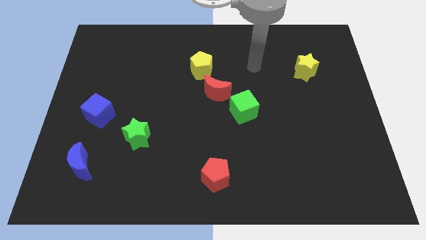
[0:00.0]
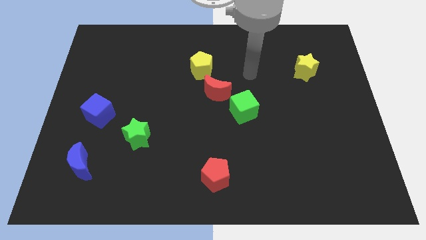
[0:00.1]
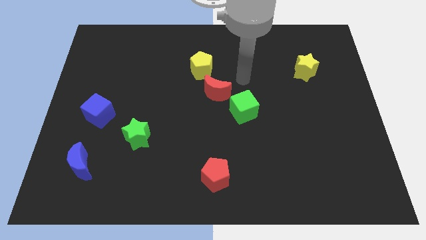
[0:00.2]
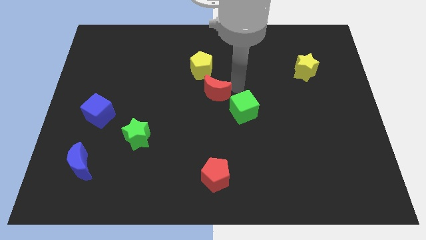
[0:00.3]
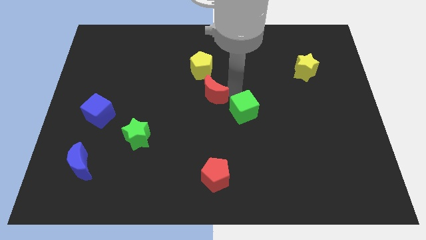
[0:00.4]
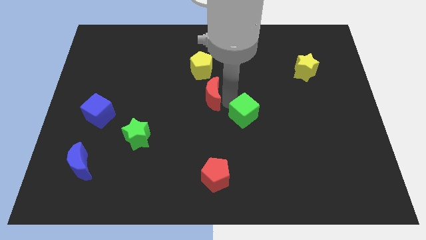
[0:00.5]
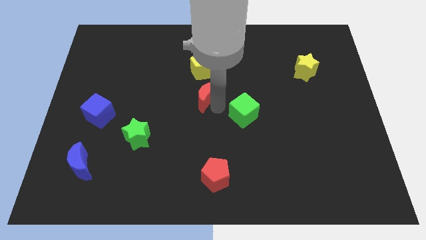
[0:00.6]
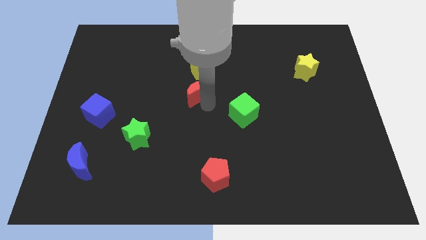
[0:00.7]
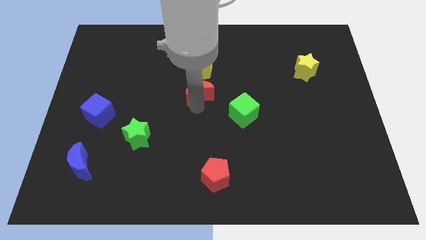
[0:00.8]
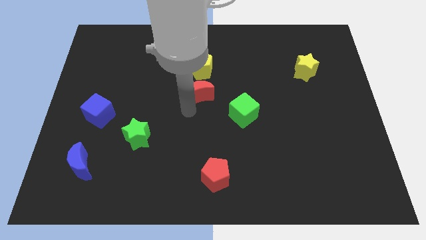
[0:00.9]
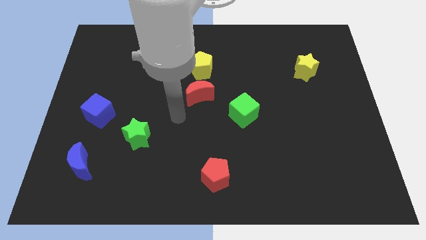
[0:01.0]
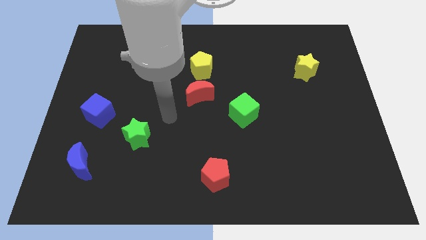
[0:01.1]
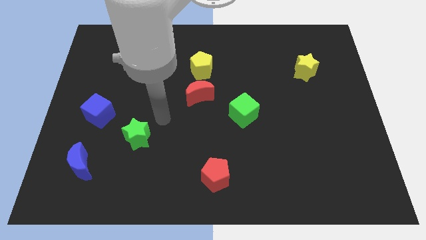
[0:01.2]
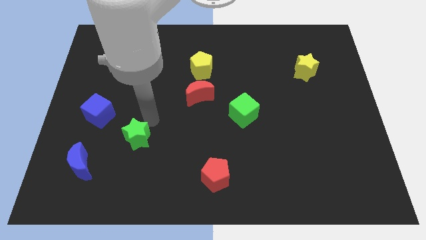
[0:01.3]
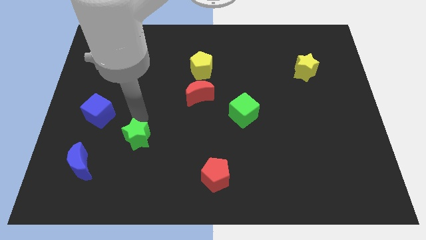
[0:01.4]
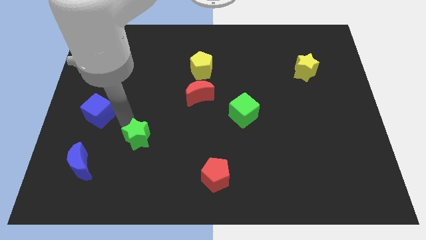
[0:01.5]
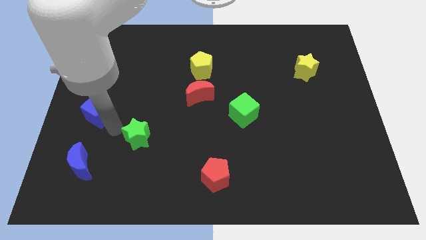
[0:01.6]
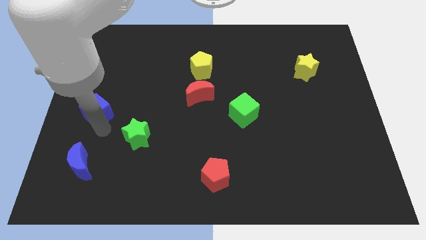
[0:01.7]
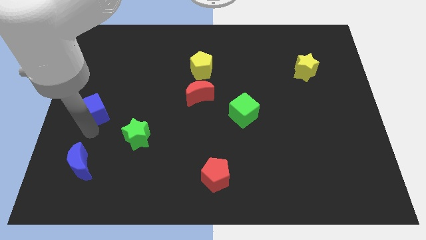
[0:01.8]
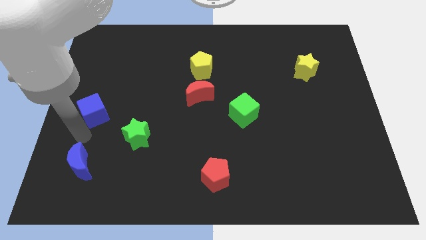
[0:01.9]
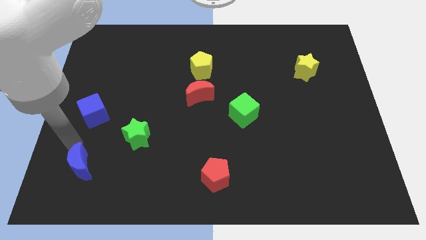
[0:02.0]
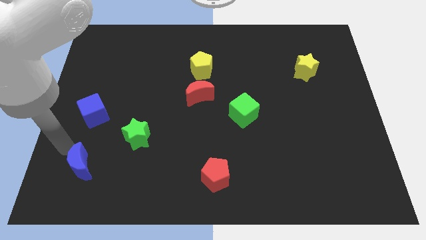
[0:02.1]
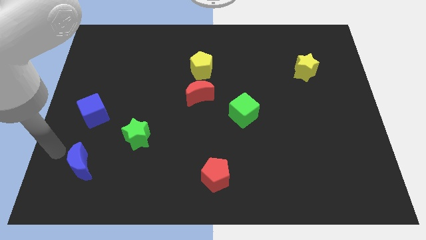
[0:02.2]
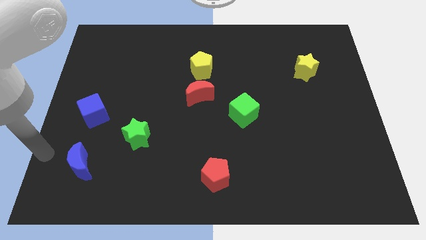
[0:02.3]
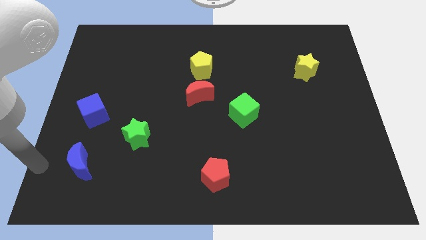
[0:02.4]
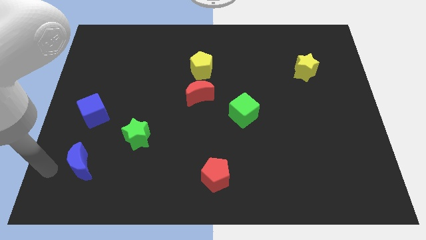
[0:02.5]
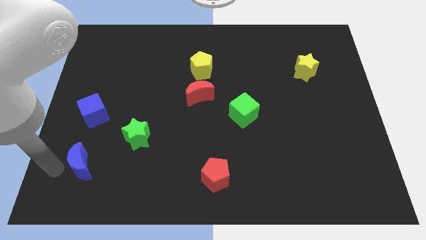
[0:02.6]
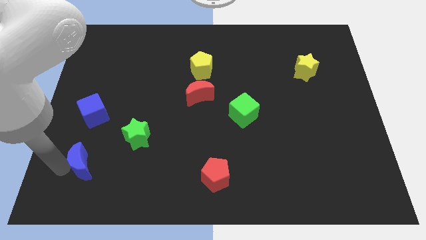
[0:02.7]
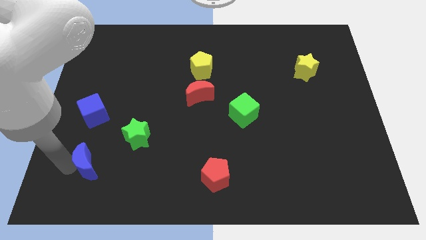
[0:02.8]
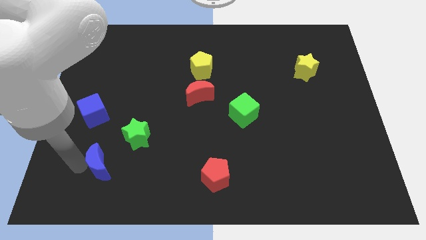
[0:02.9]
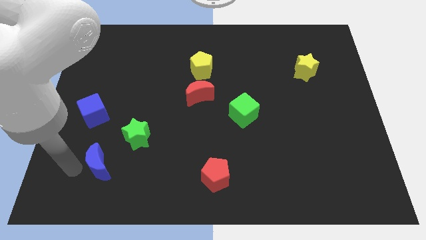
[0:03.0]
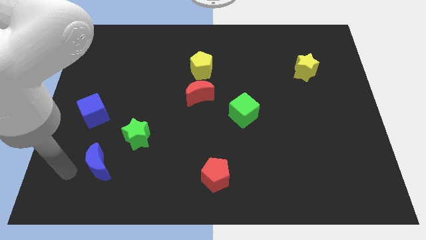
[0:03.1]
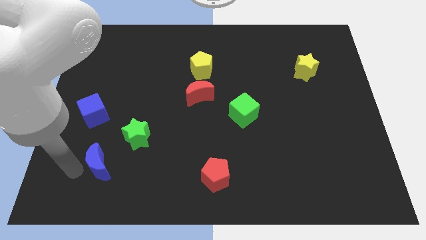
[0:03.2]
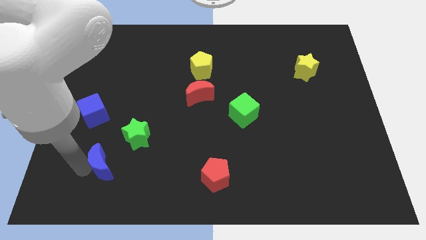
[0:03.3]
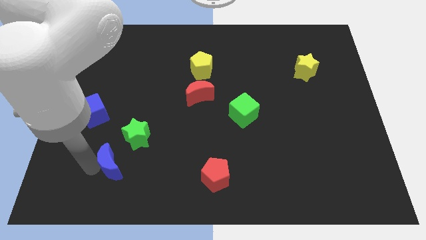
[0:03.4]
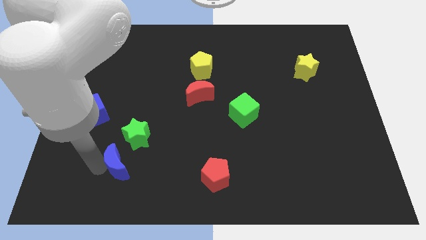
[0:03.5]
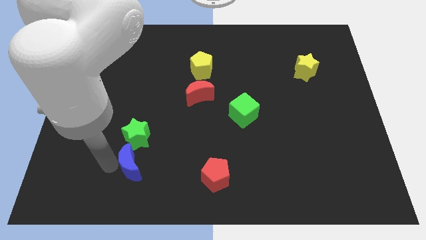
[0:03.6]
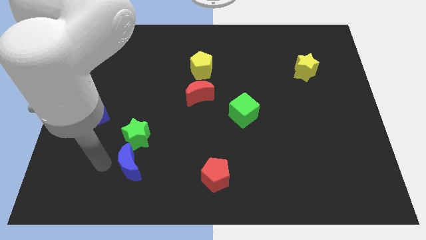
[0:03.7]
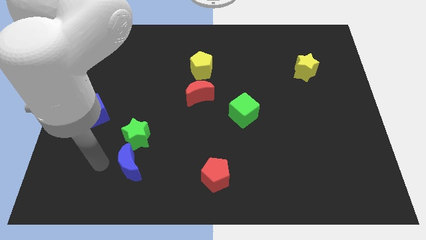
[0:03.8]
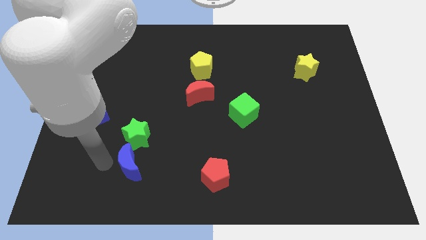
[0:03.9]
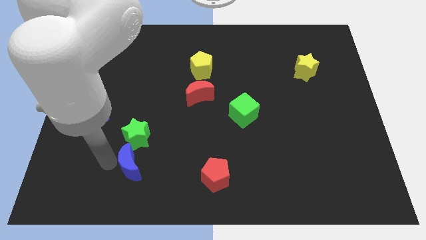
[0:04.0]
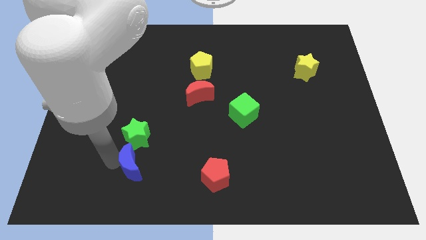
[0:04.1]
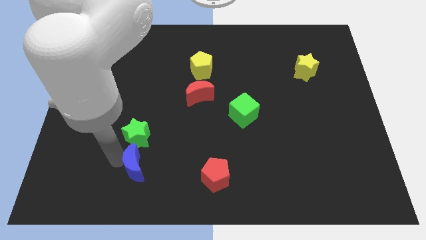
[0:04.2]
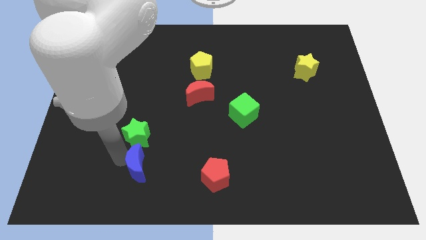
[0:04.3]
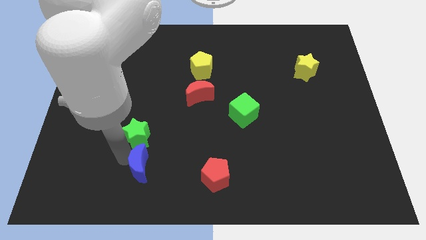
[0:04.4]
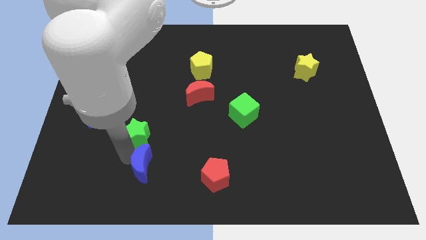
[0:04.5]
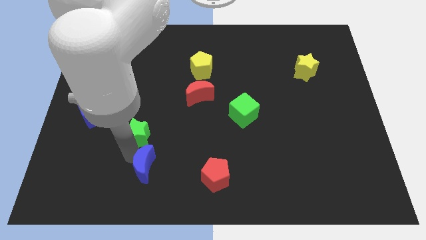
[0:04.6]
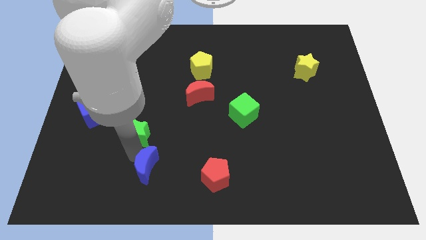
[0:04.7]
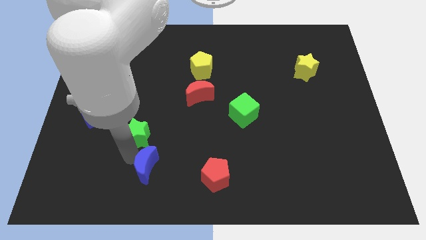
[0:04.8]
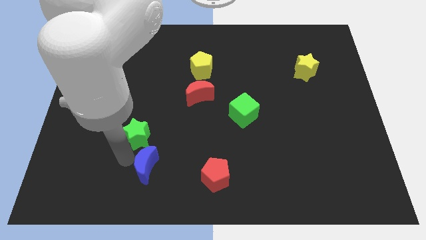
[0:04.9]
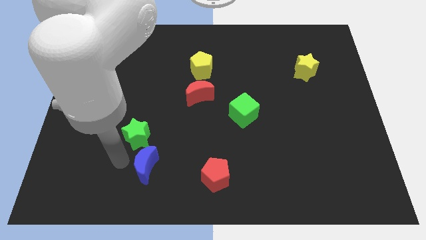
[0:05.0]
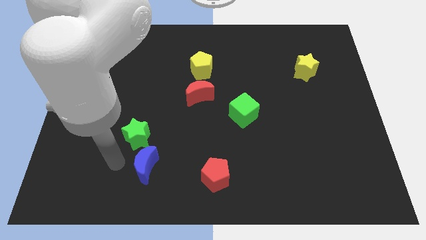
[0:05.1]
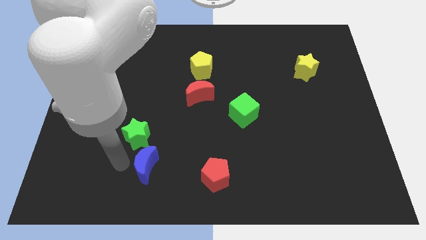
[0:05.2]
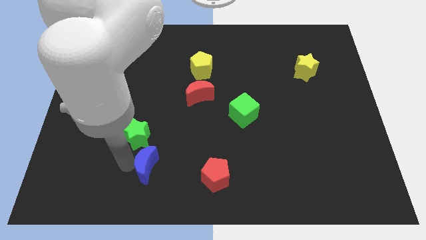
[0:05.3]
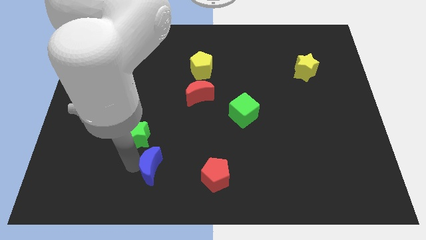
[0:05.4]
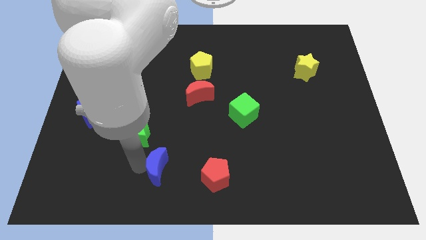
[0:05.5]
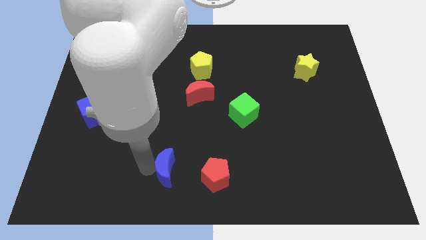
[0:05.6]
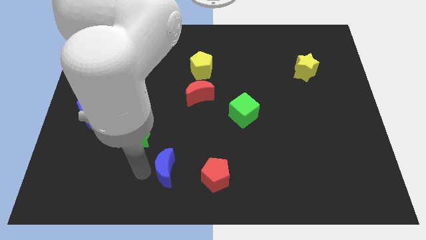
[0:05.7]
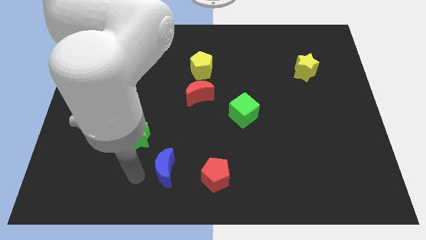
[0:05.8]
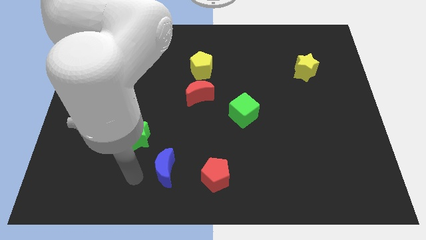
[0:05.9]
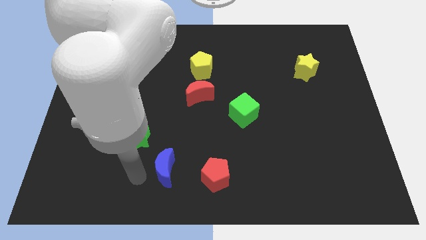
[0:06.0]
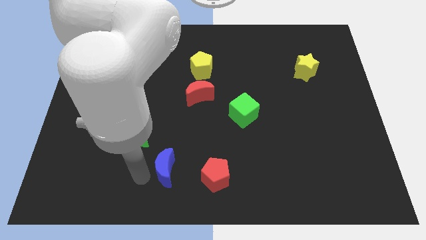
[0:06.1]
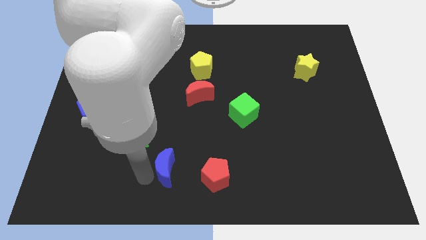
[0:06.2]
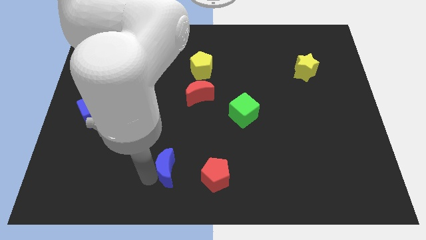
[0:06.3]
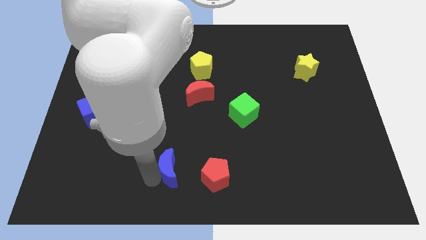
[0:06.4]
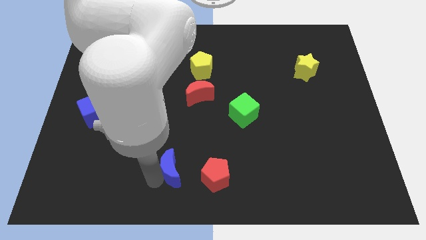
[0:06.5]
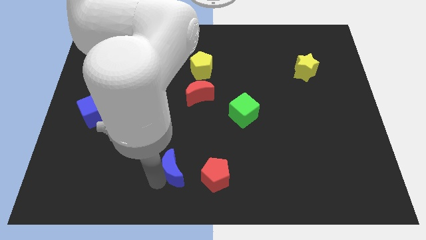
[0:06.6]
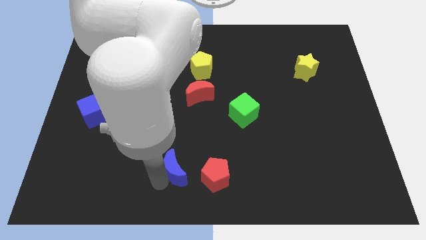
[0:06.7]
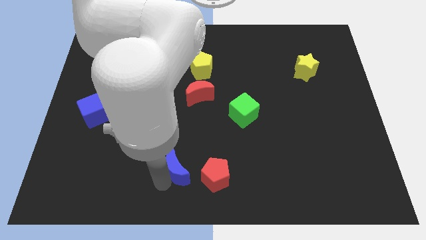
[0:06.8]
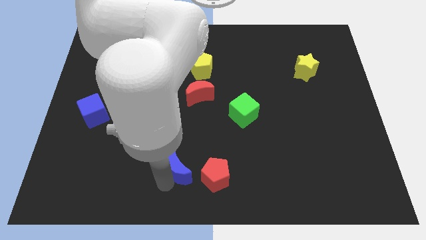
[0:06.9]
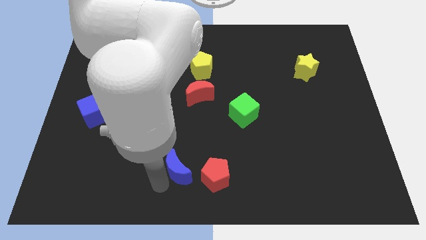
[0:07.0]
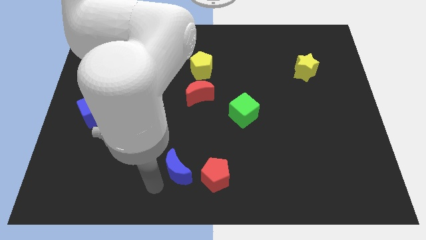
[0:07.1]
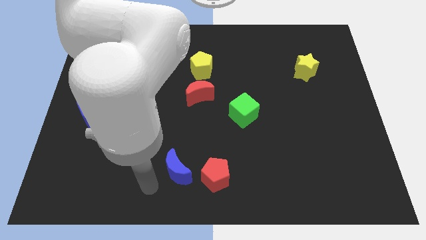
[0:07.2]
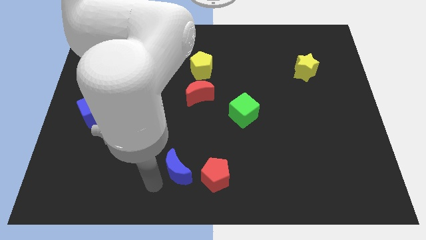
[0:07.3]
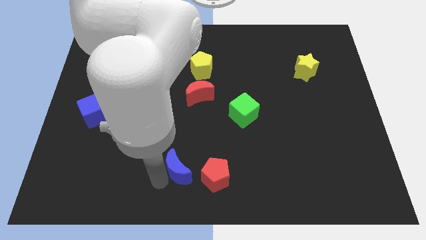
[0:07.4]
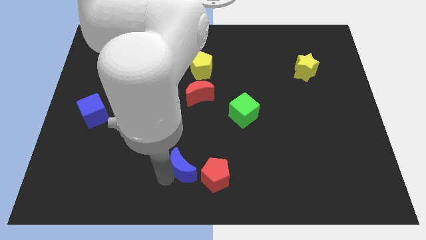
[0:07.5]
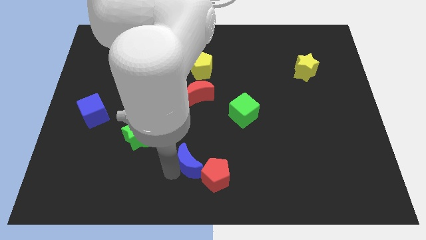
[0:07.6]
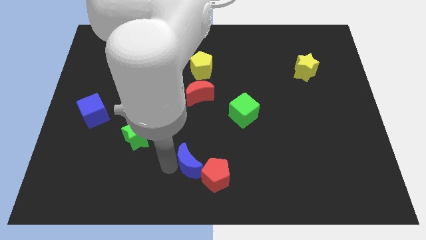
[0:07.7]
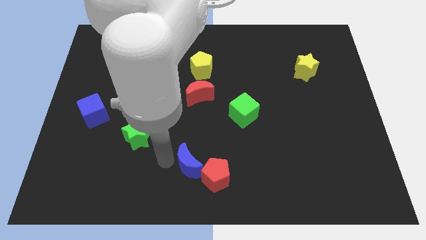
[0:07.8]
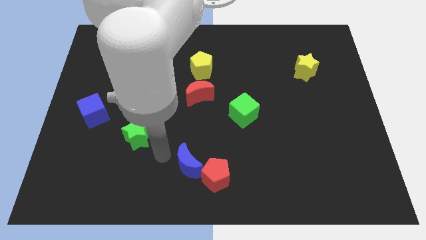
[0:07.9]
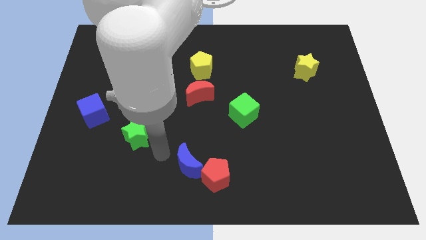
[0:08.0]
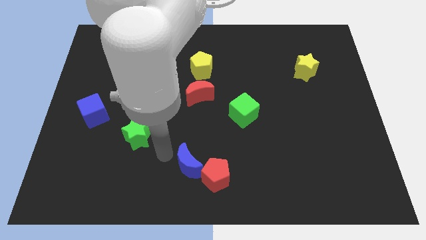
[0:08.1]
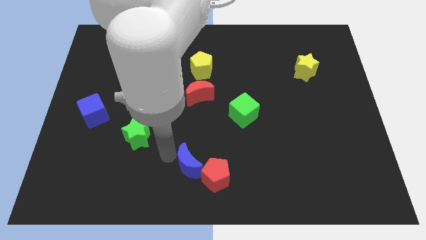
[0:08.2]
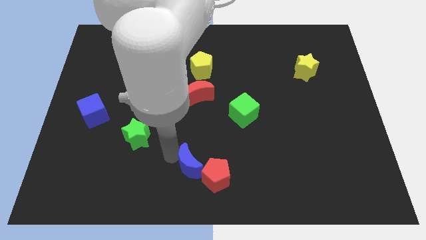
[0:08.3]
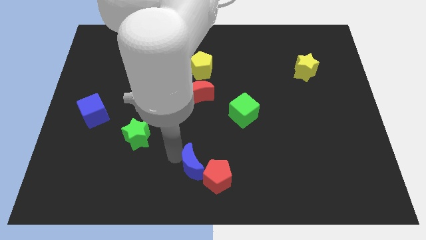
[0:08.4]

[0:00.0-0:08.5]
push the blue moon towards the red pentagon
